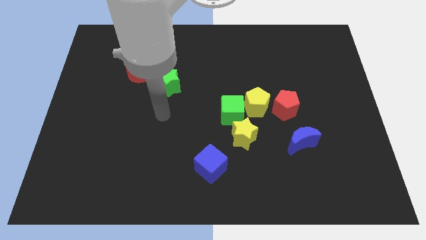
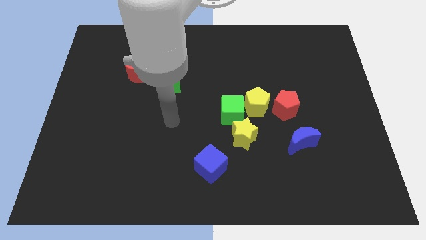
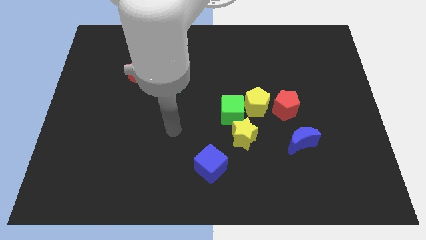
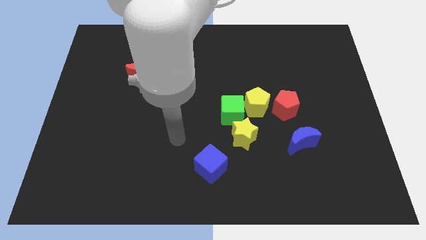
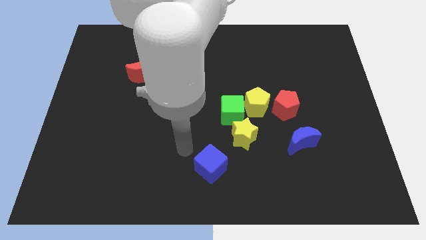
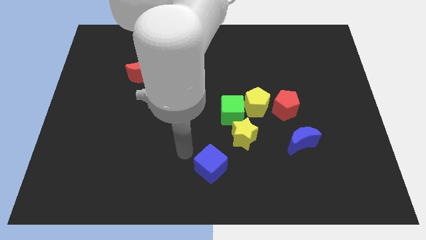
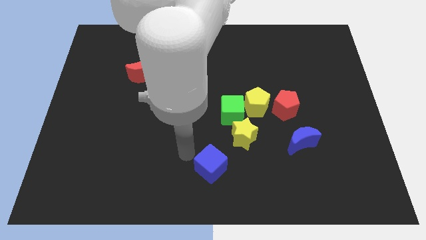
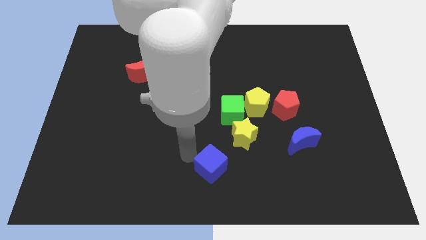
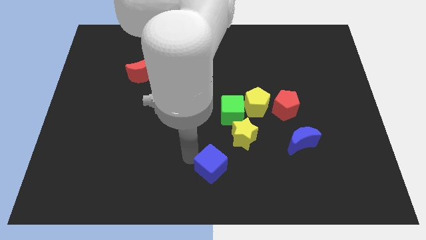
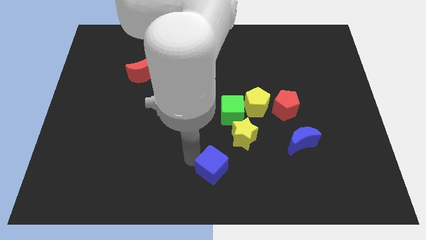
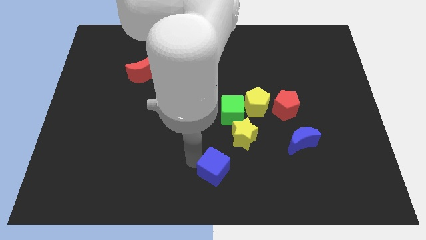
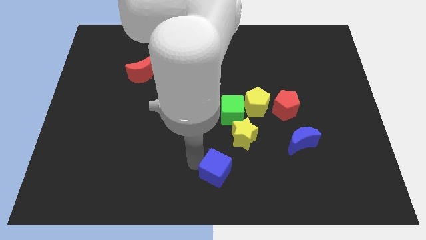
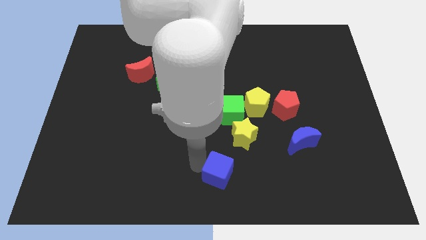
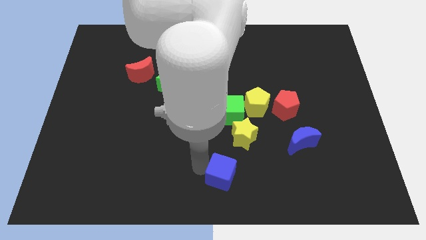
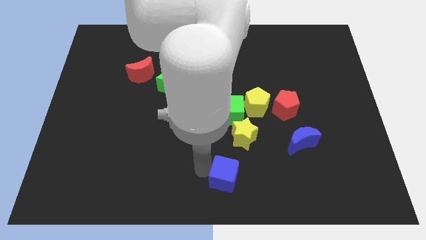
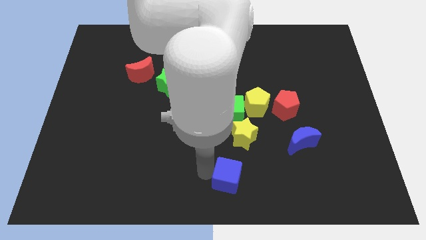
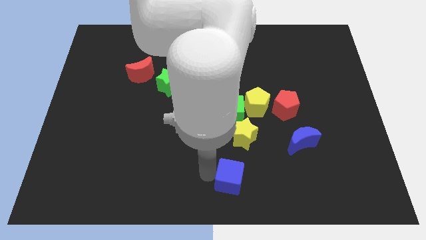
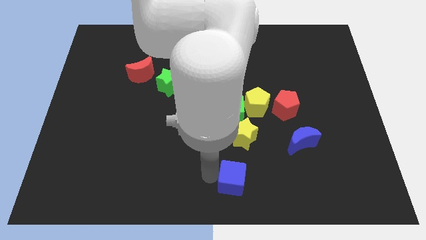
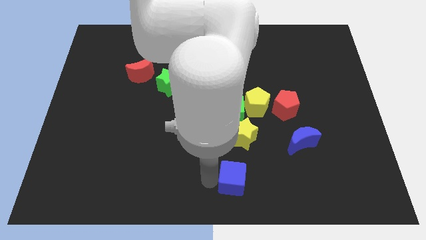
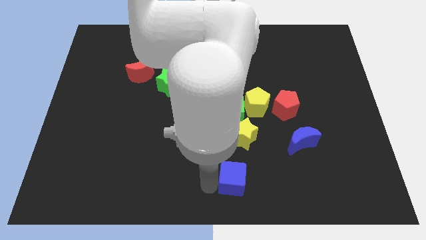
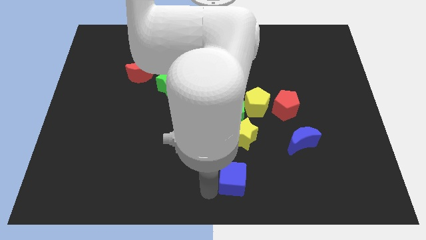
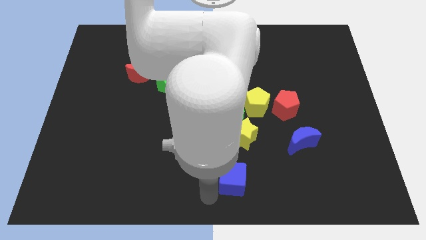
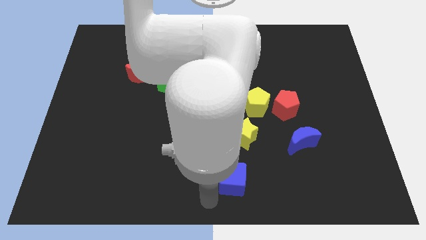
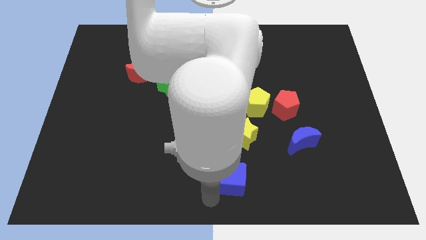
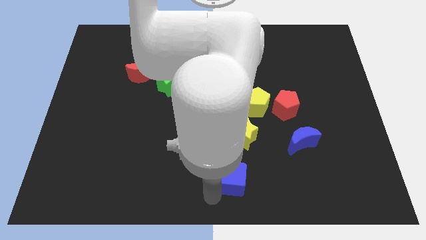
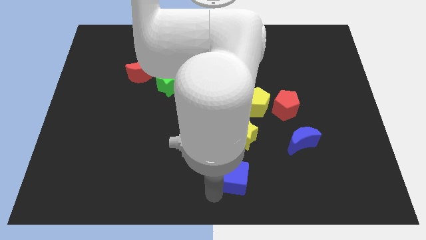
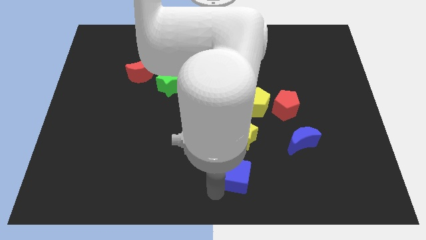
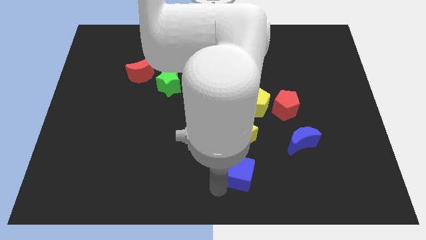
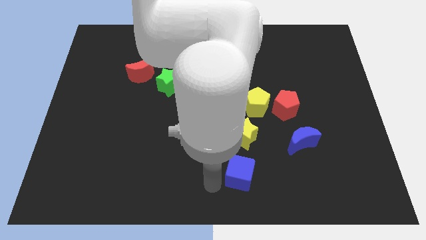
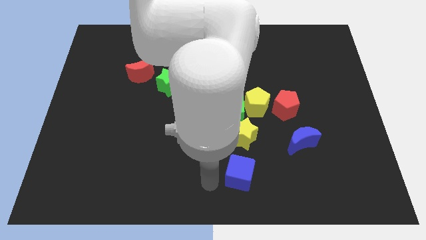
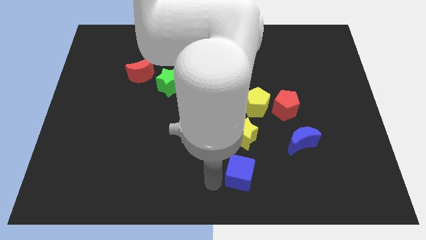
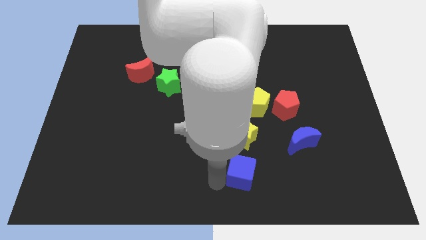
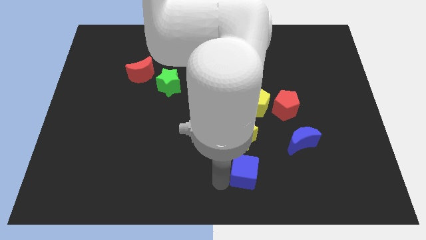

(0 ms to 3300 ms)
move the blue cube right slightly

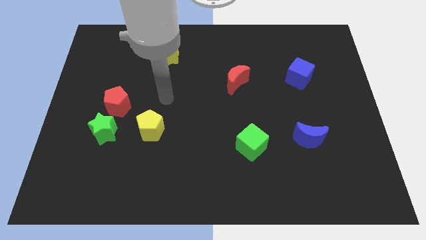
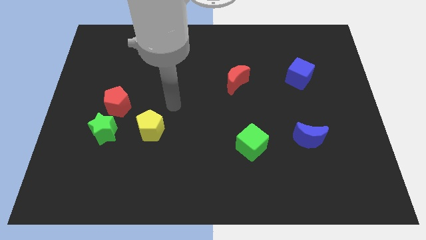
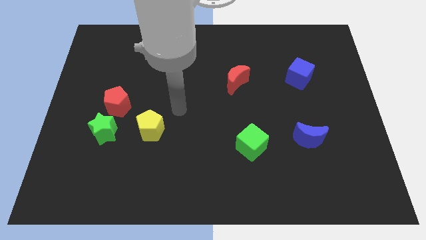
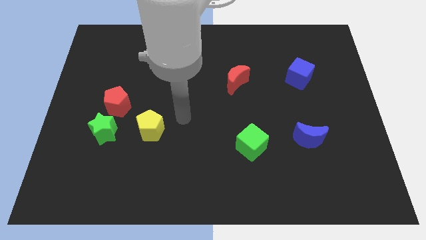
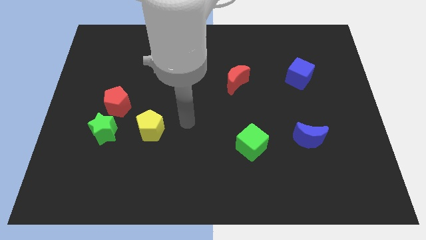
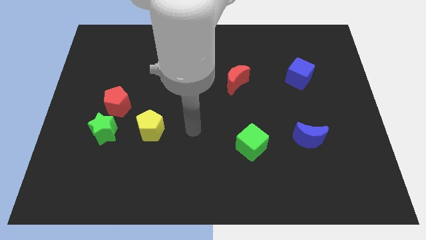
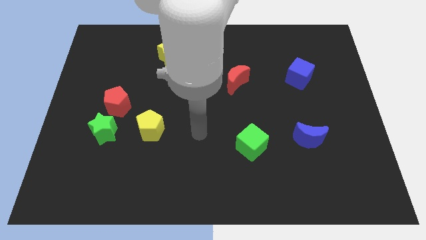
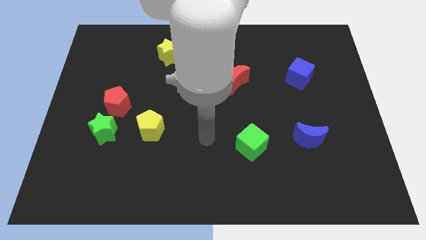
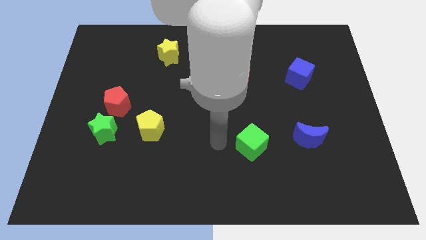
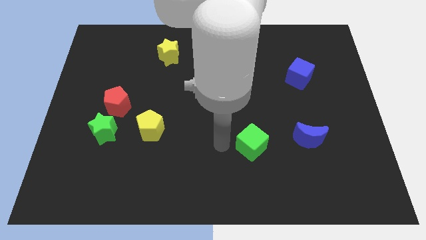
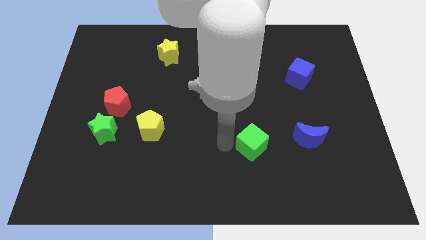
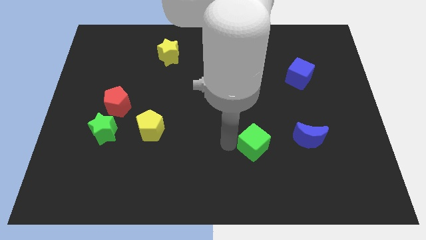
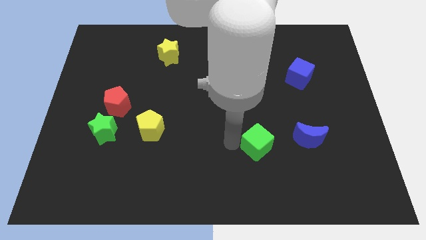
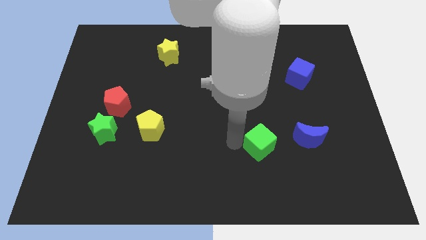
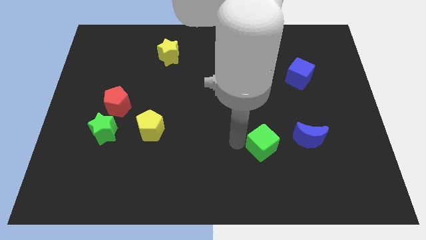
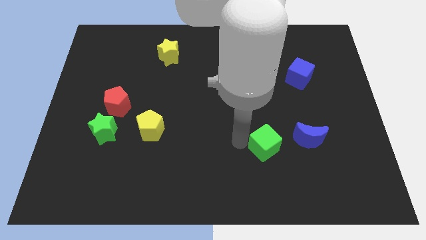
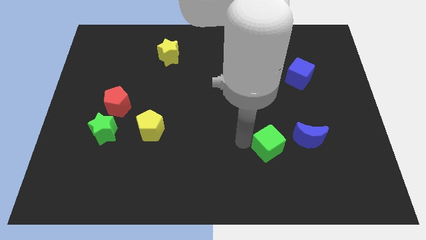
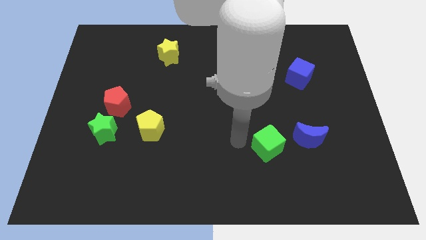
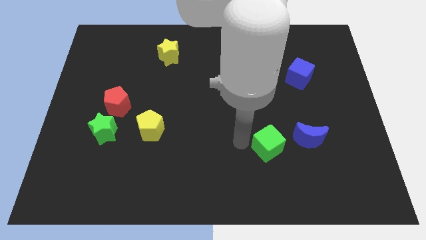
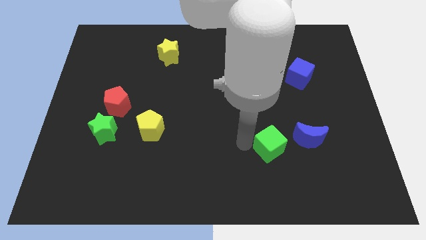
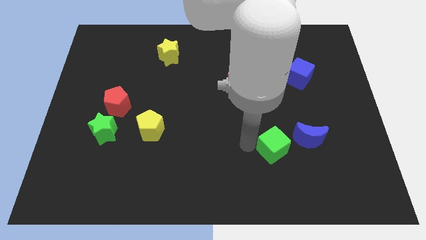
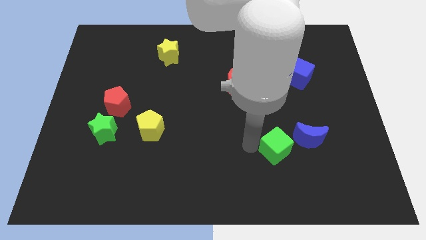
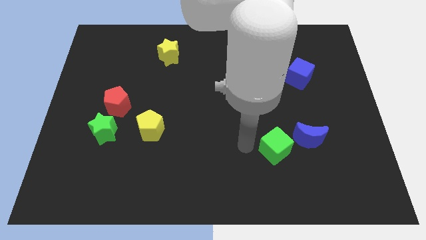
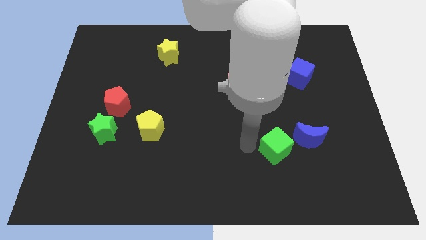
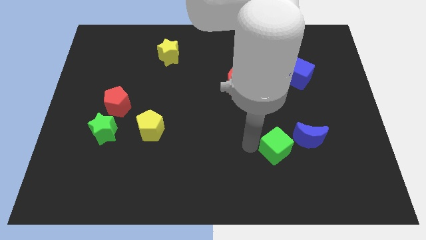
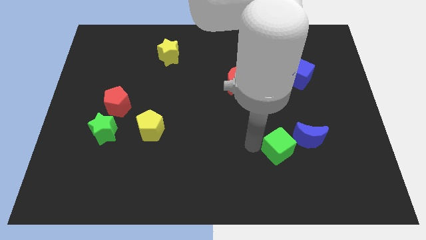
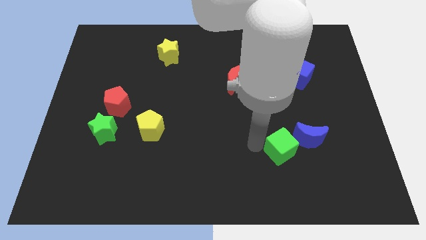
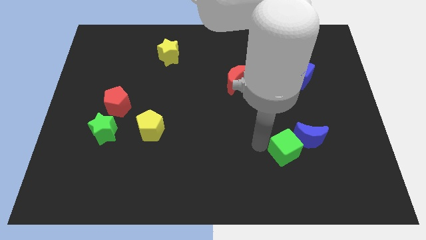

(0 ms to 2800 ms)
slightly slide the green cube right

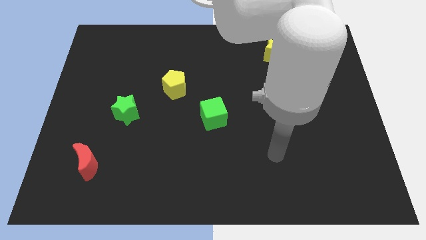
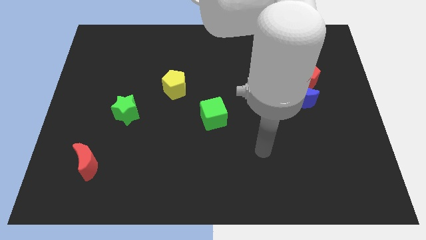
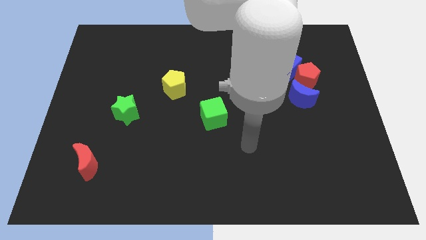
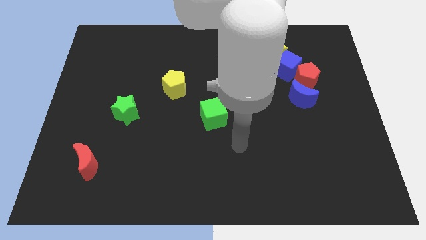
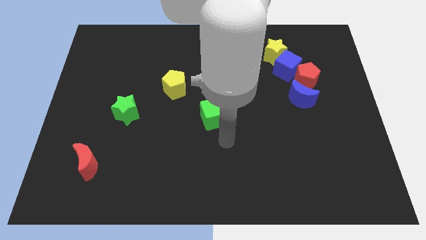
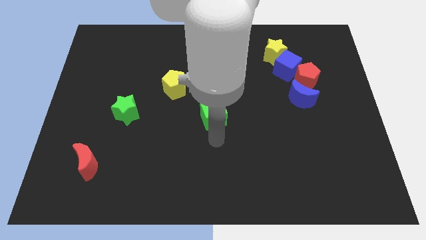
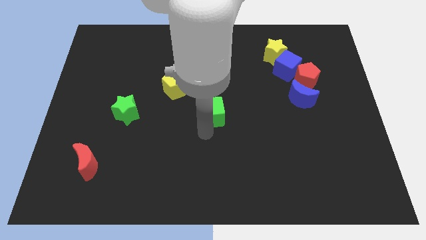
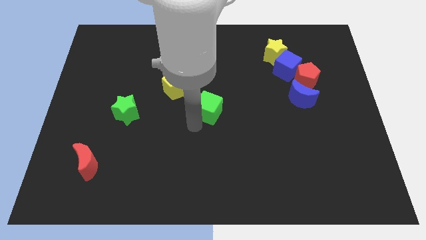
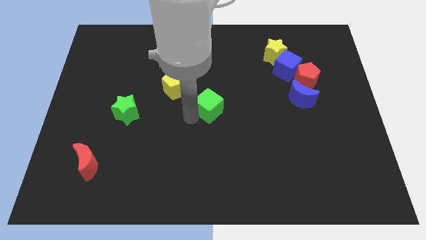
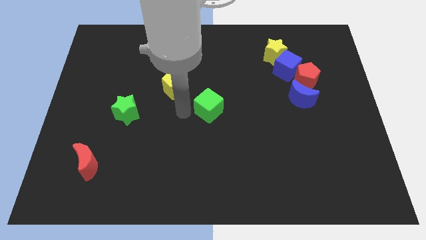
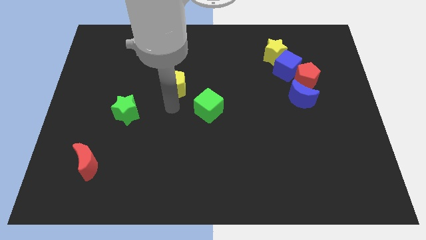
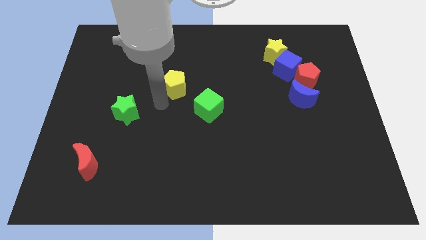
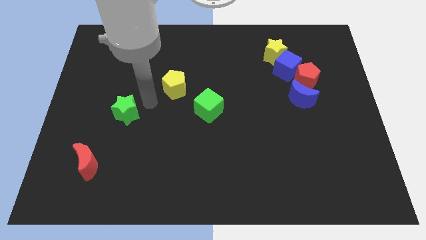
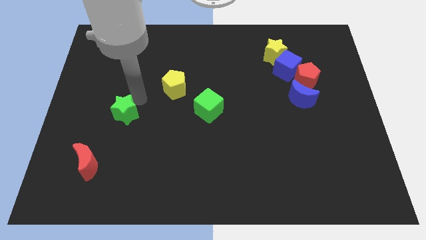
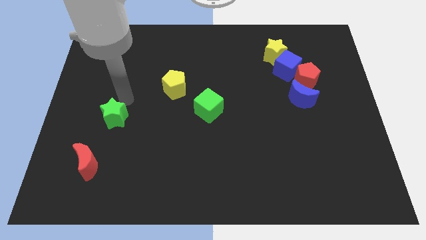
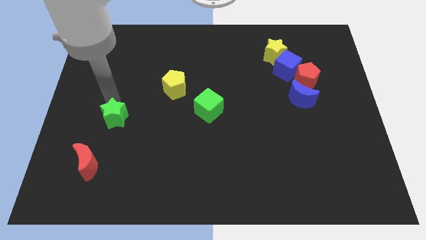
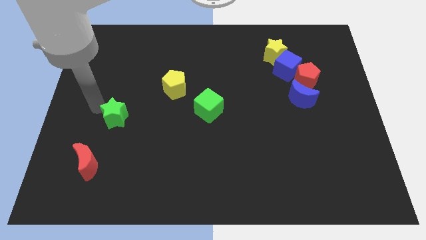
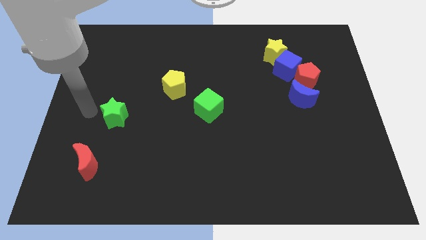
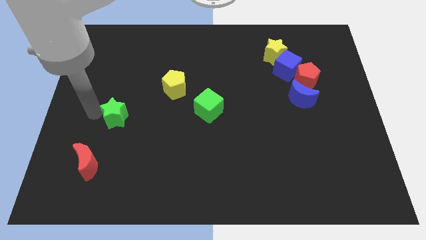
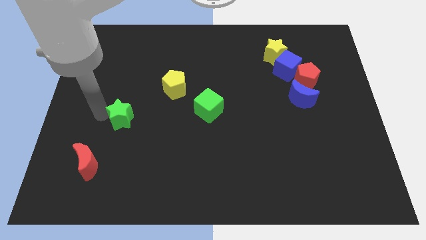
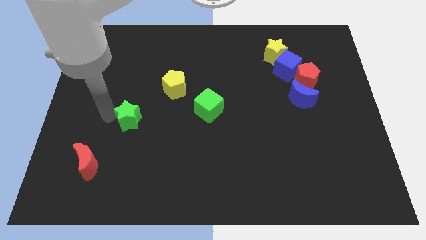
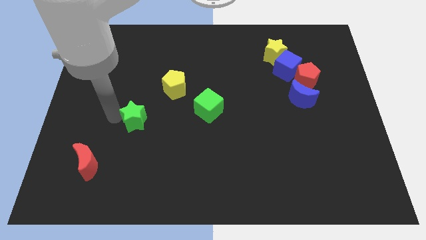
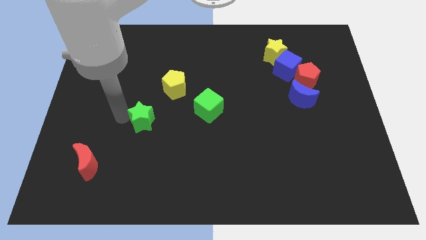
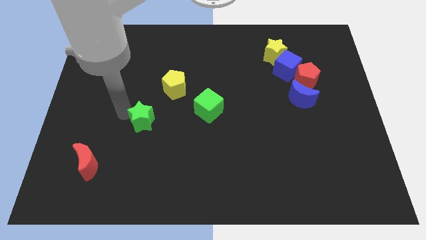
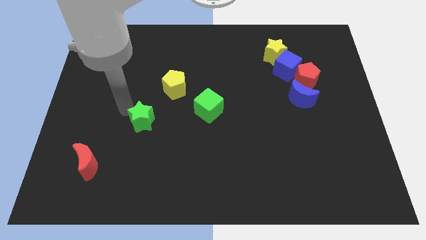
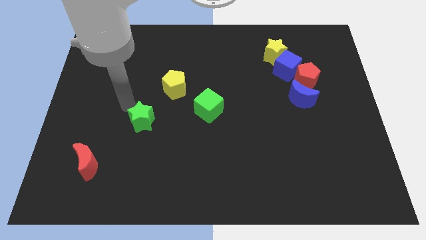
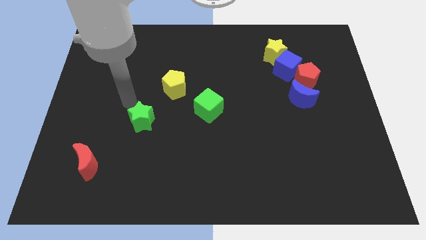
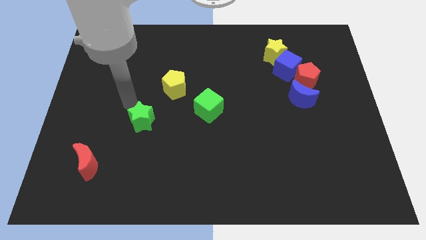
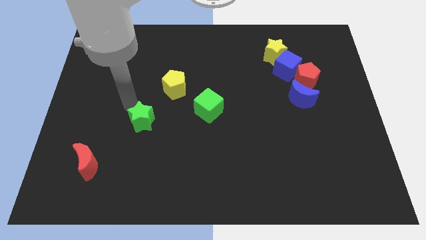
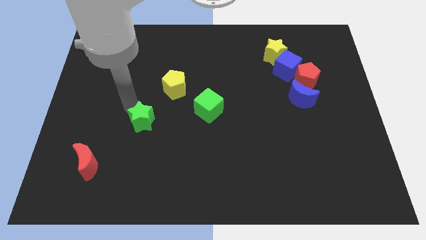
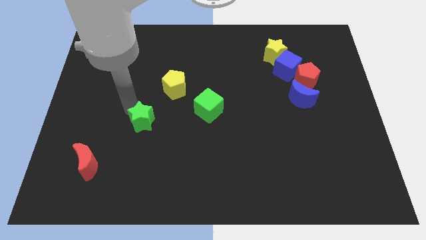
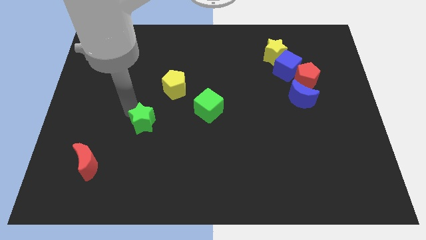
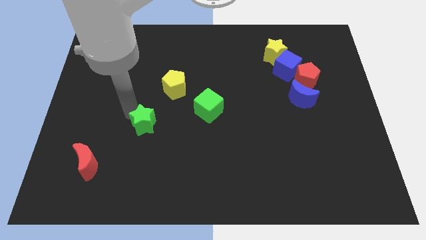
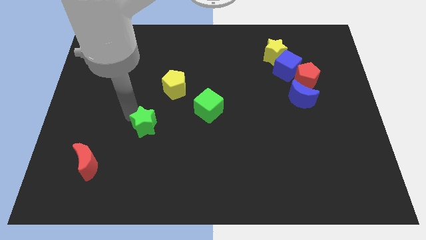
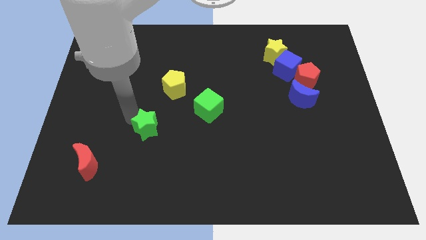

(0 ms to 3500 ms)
slightly push the green star diagonally down and right
